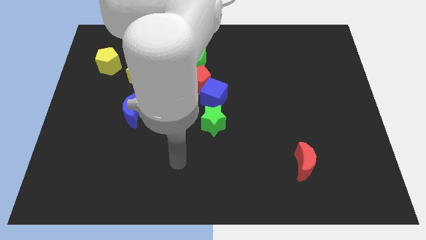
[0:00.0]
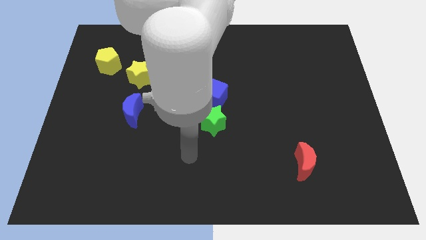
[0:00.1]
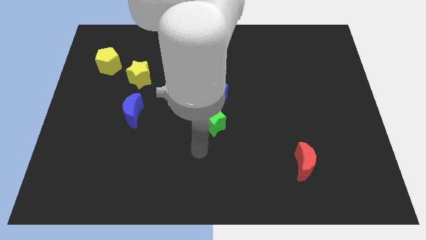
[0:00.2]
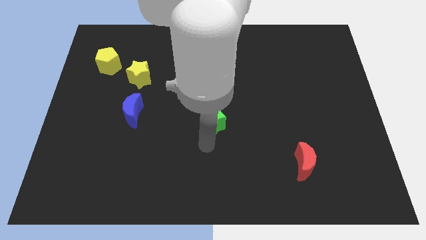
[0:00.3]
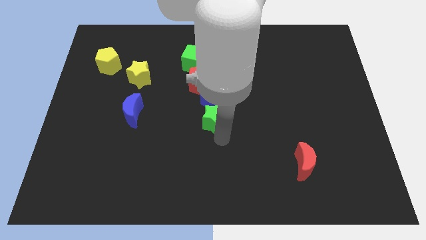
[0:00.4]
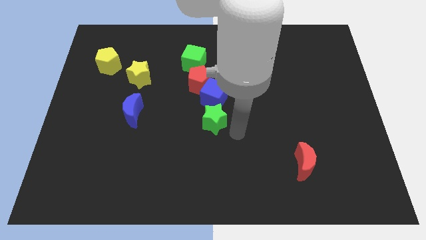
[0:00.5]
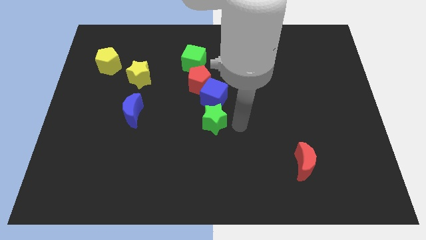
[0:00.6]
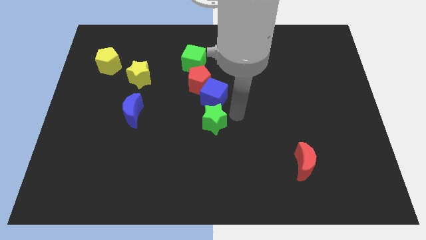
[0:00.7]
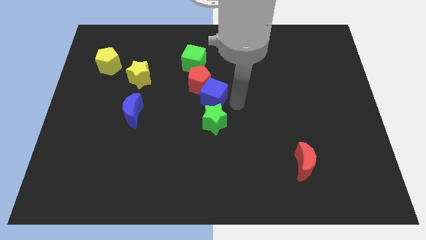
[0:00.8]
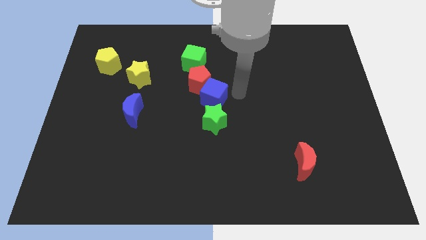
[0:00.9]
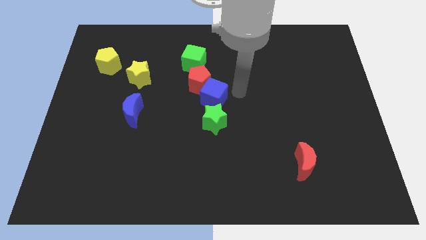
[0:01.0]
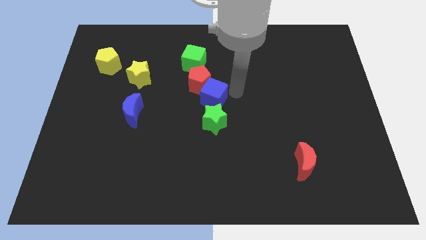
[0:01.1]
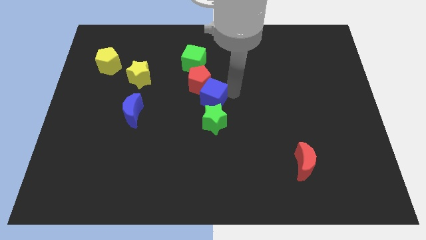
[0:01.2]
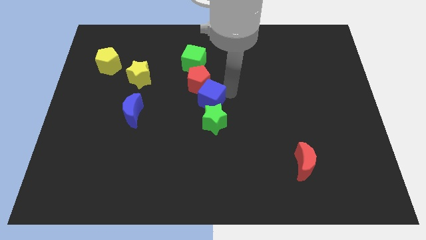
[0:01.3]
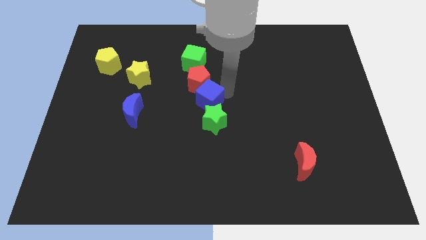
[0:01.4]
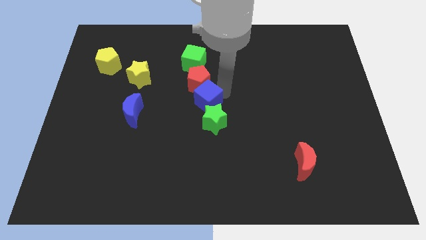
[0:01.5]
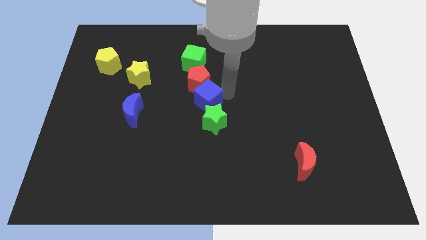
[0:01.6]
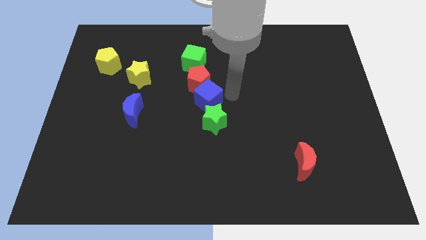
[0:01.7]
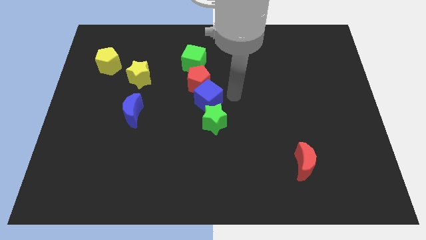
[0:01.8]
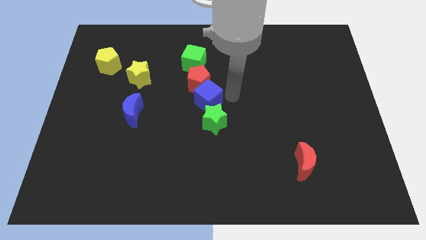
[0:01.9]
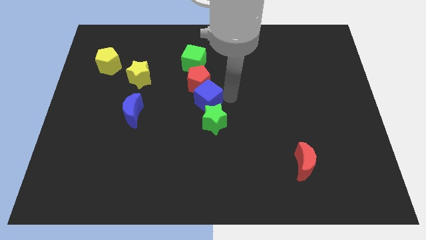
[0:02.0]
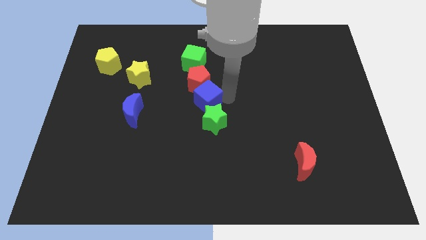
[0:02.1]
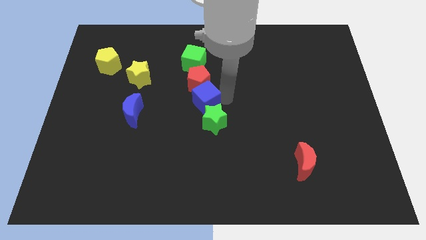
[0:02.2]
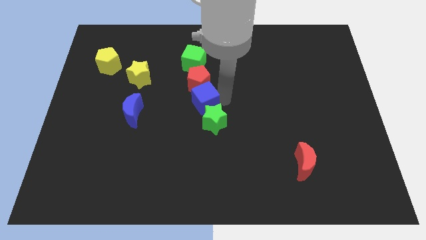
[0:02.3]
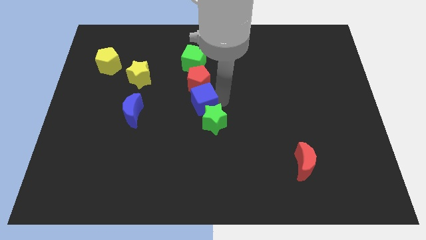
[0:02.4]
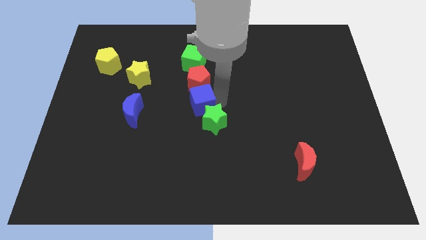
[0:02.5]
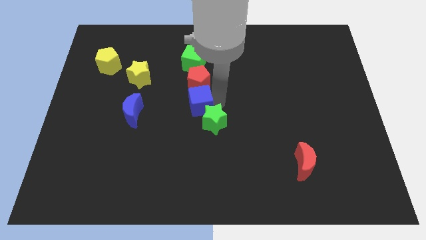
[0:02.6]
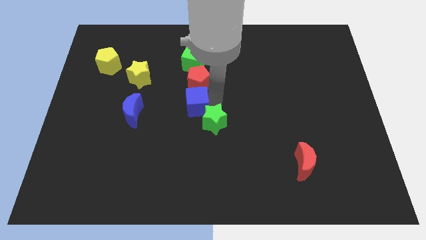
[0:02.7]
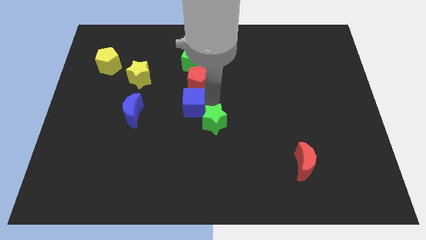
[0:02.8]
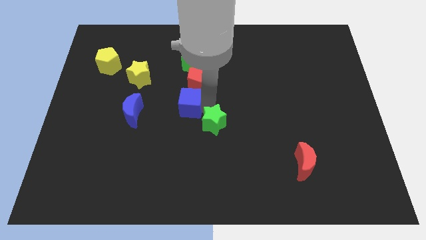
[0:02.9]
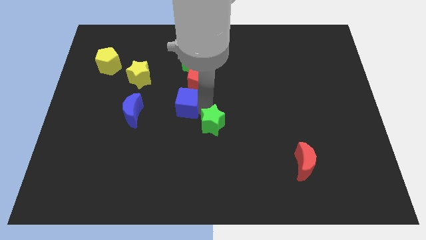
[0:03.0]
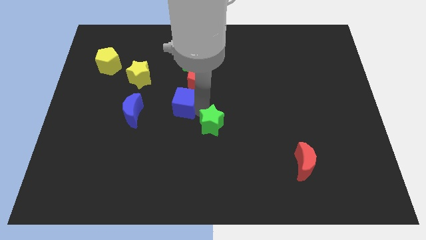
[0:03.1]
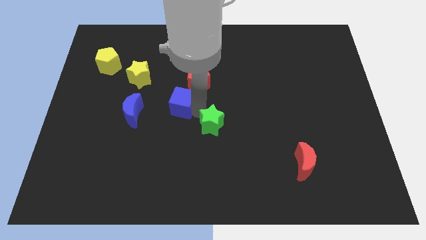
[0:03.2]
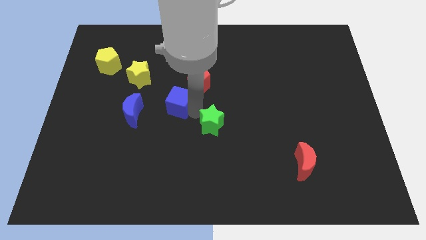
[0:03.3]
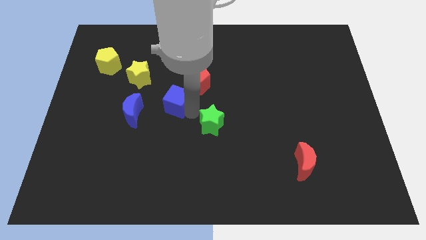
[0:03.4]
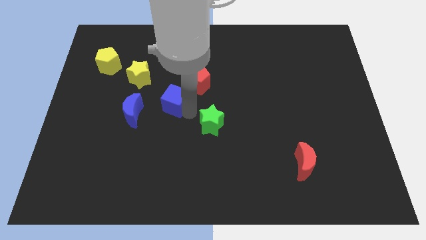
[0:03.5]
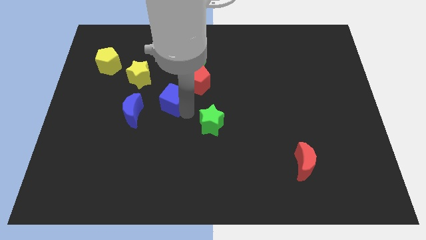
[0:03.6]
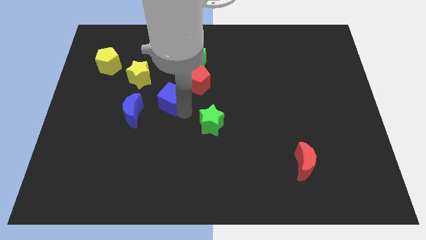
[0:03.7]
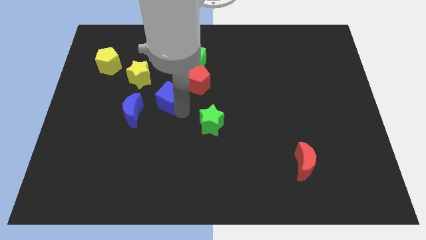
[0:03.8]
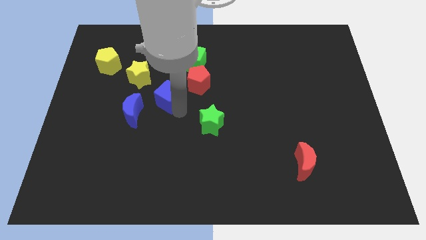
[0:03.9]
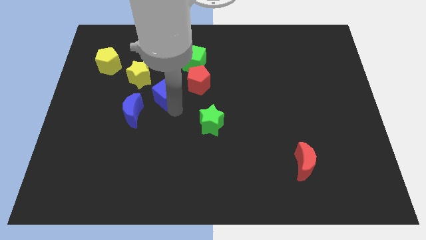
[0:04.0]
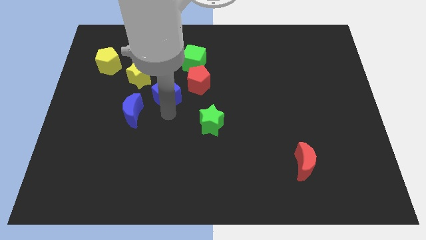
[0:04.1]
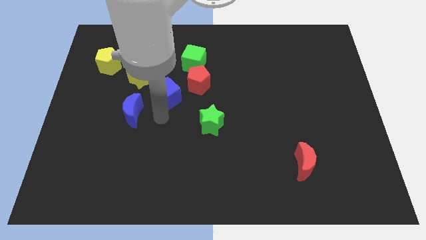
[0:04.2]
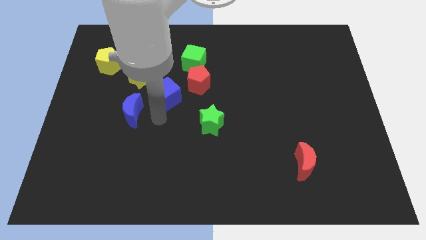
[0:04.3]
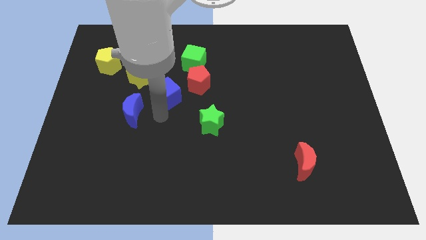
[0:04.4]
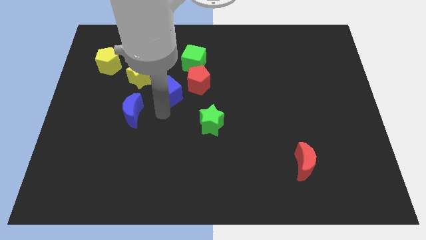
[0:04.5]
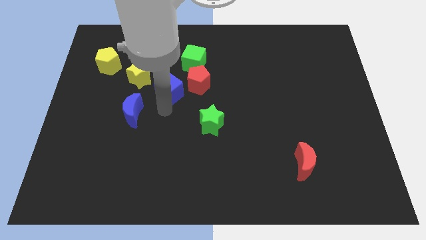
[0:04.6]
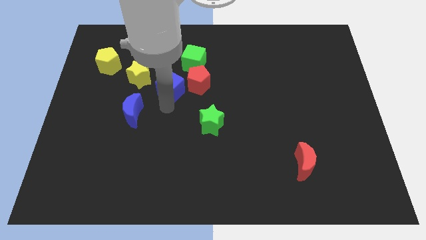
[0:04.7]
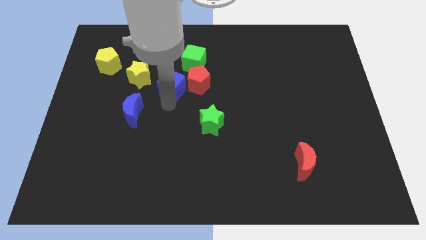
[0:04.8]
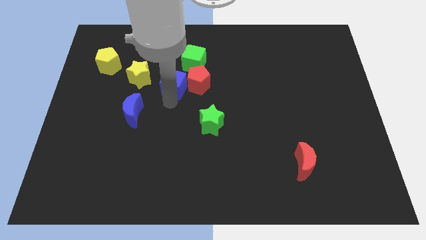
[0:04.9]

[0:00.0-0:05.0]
put the blue cube diagonally up and to the left of the red pentagon

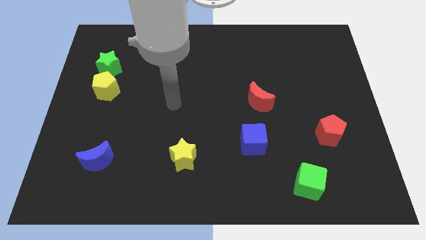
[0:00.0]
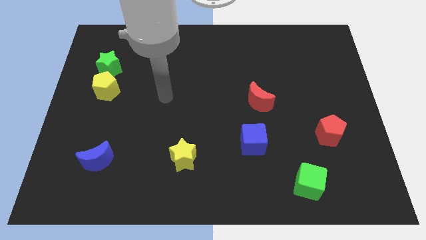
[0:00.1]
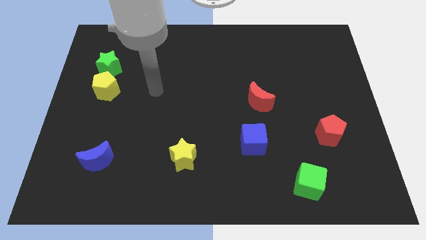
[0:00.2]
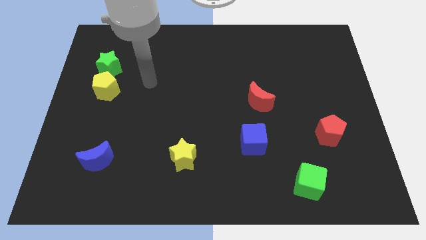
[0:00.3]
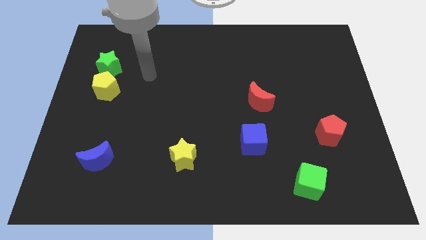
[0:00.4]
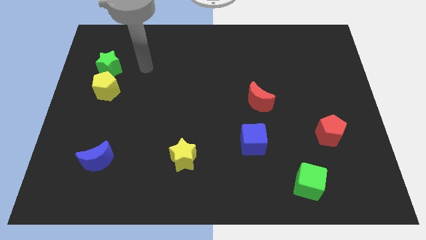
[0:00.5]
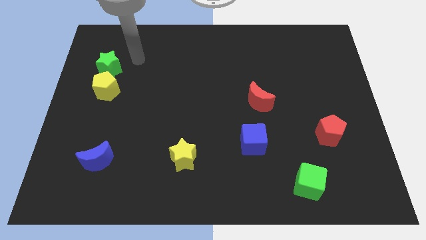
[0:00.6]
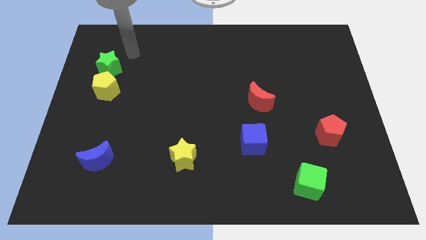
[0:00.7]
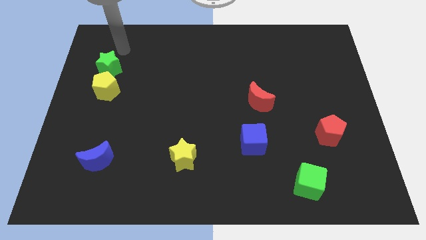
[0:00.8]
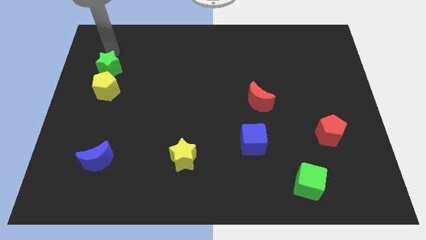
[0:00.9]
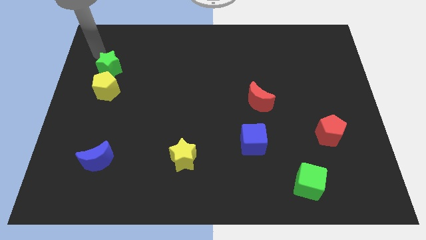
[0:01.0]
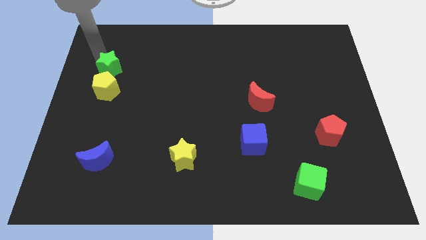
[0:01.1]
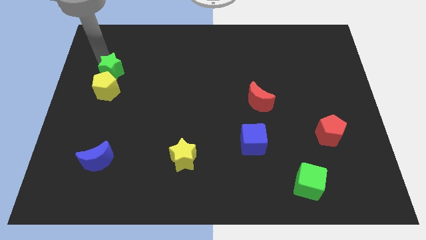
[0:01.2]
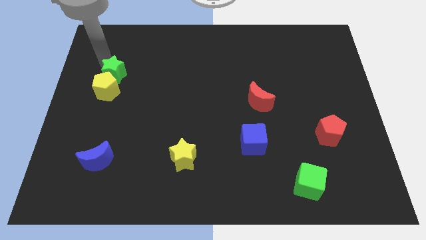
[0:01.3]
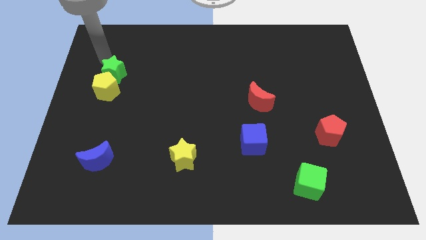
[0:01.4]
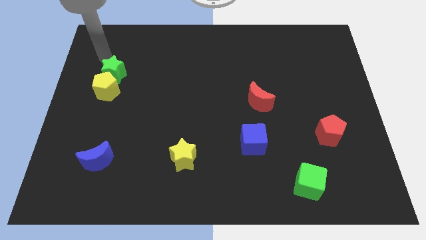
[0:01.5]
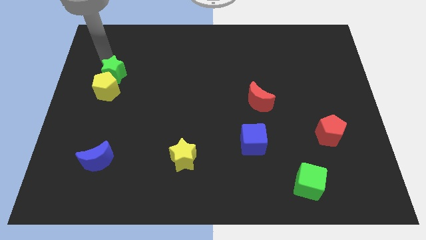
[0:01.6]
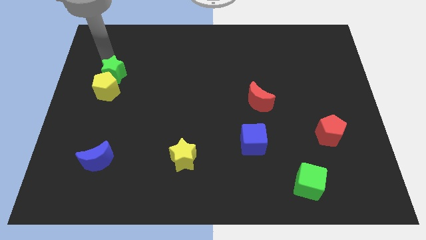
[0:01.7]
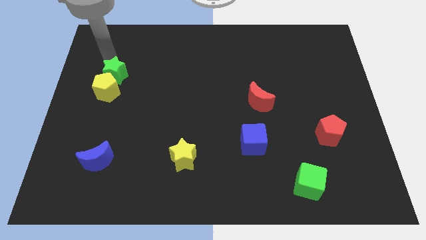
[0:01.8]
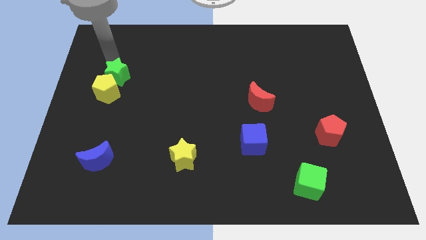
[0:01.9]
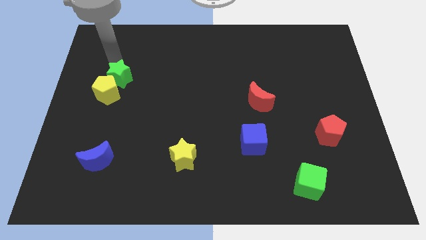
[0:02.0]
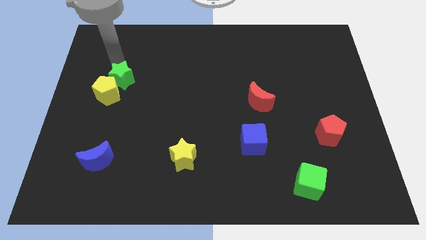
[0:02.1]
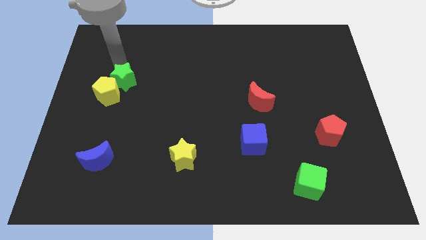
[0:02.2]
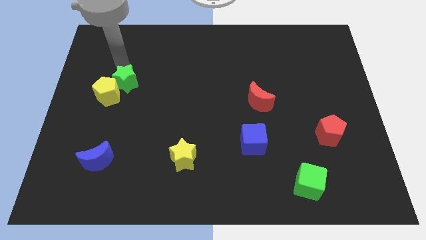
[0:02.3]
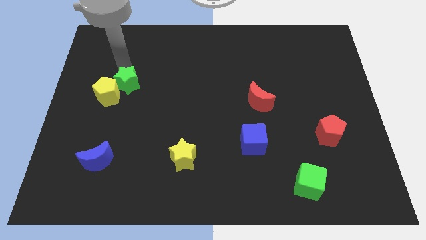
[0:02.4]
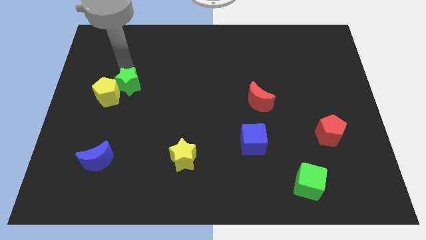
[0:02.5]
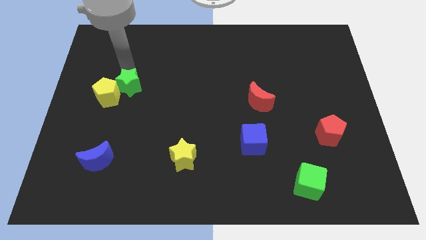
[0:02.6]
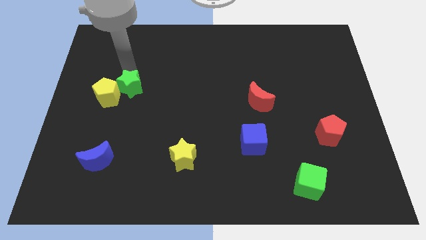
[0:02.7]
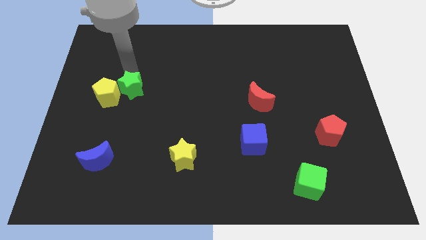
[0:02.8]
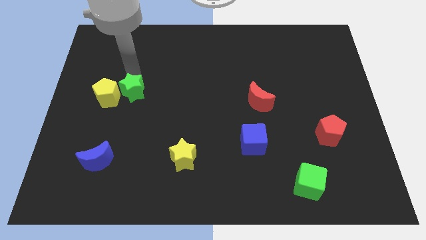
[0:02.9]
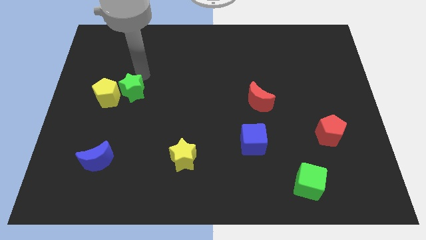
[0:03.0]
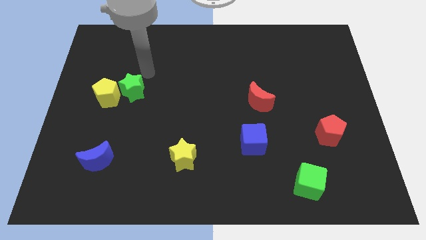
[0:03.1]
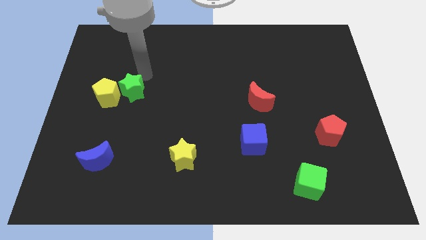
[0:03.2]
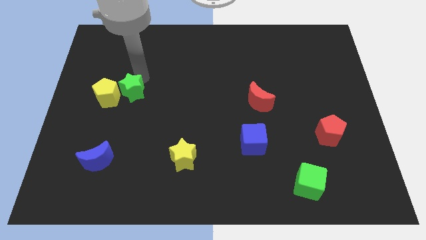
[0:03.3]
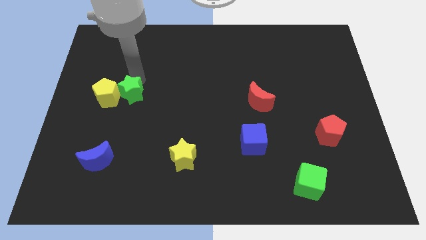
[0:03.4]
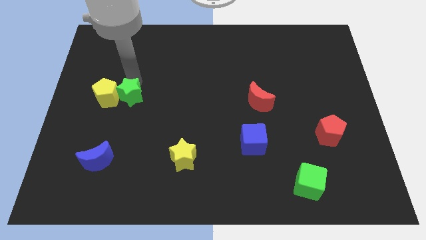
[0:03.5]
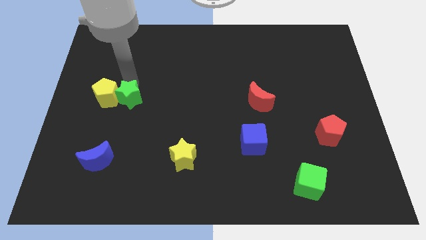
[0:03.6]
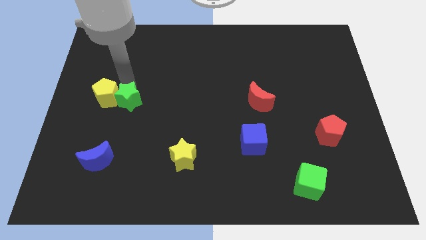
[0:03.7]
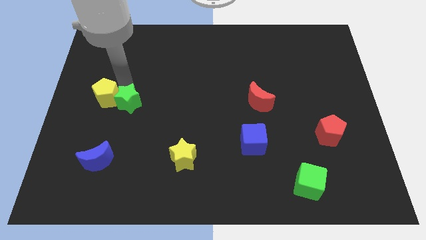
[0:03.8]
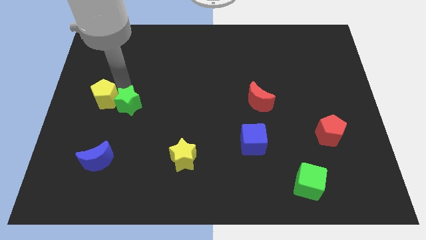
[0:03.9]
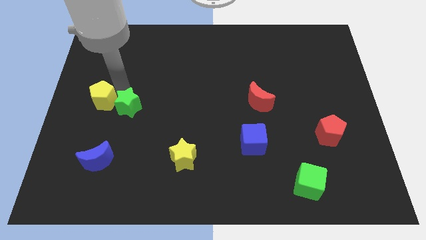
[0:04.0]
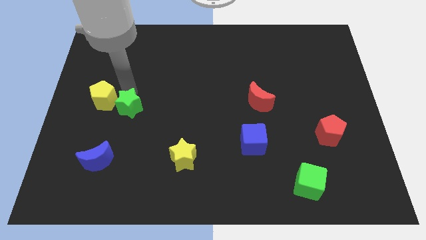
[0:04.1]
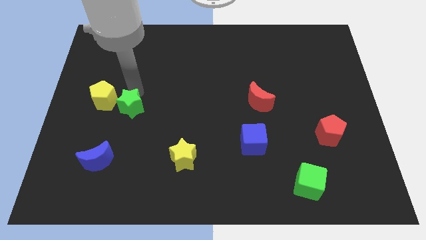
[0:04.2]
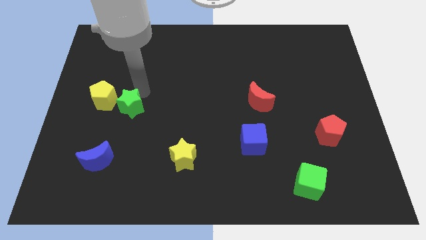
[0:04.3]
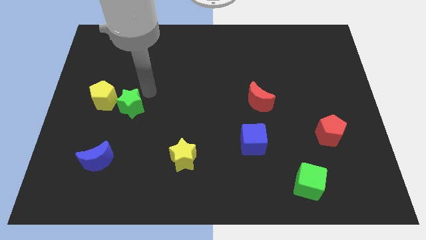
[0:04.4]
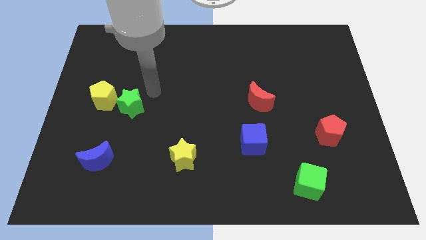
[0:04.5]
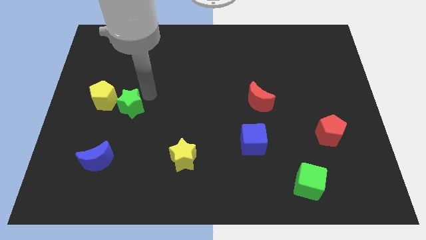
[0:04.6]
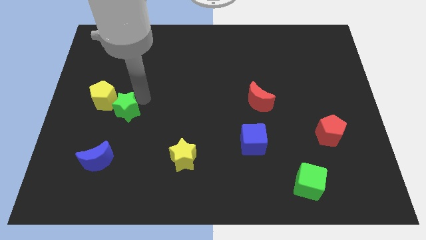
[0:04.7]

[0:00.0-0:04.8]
put the green star to the top of the blue moon
